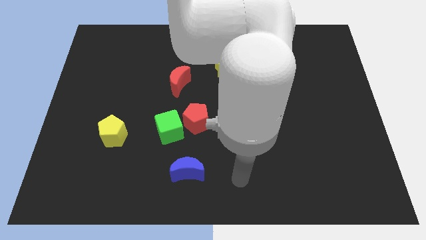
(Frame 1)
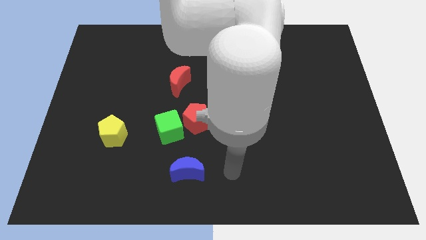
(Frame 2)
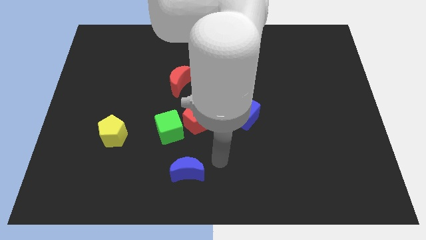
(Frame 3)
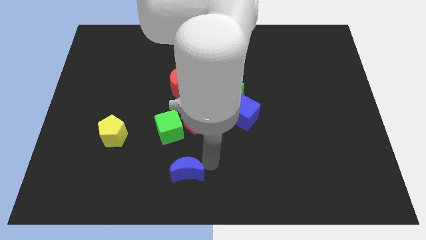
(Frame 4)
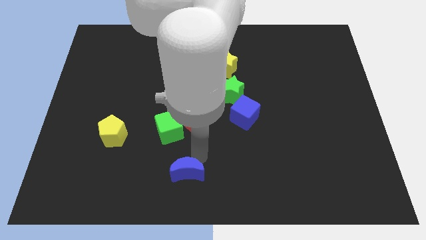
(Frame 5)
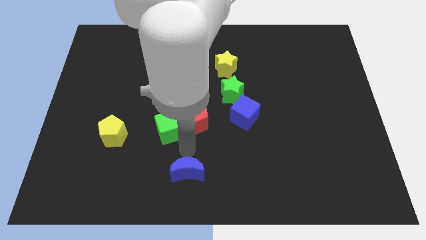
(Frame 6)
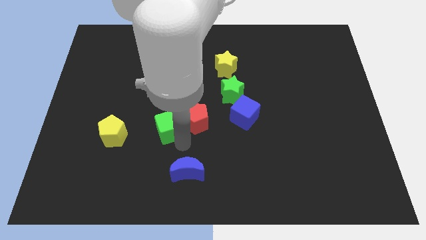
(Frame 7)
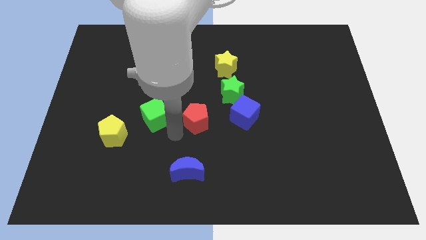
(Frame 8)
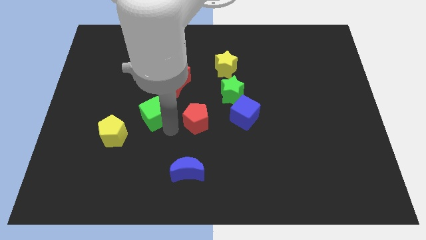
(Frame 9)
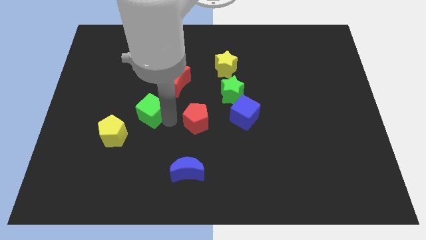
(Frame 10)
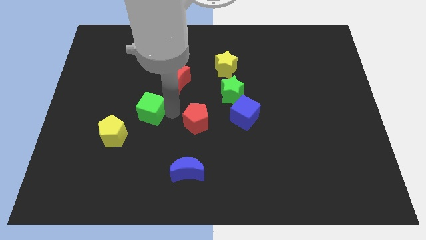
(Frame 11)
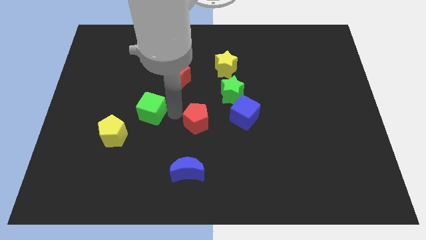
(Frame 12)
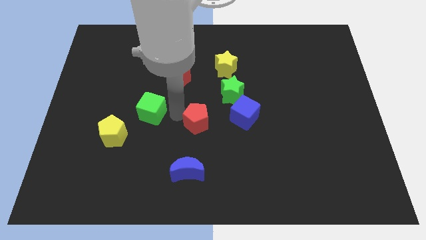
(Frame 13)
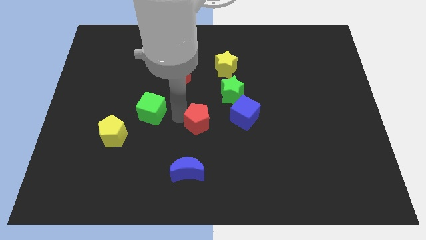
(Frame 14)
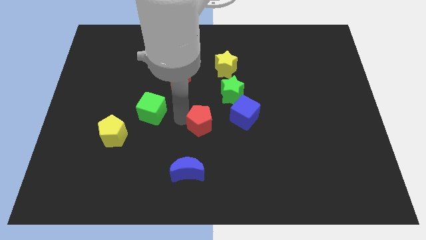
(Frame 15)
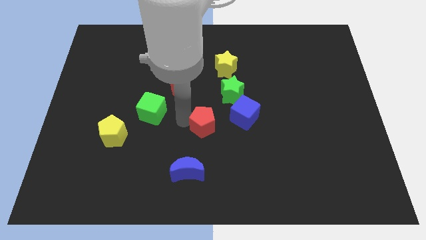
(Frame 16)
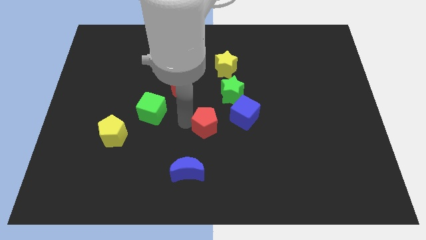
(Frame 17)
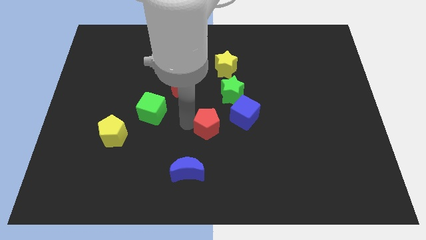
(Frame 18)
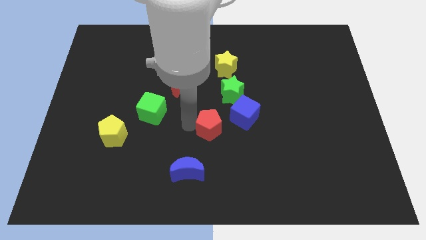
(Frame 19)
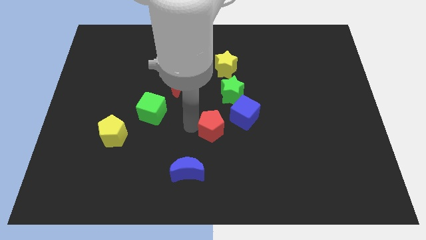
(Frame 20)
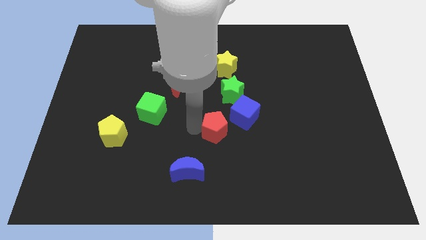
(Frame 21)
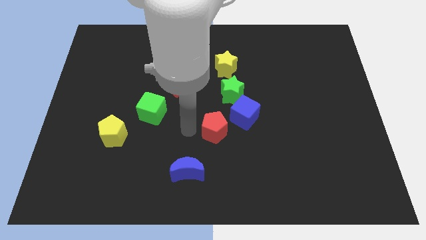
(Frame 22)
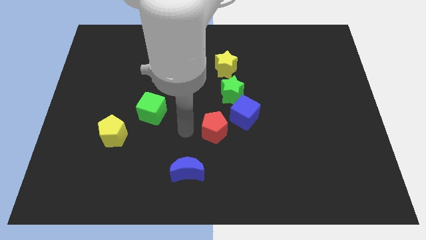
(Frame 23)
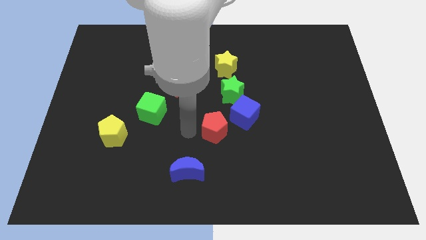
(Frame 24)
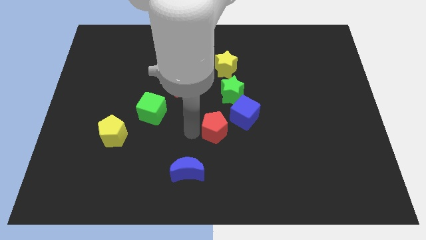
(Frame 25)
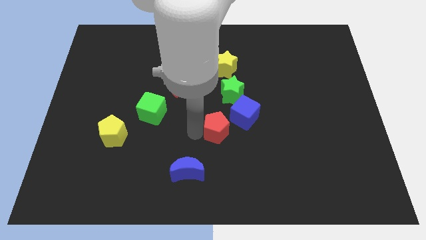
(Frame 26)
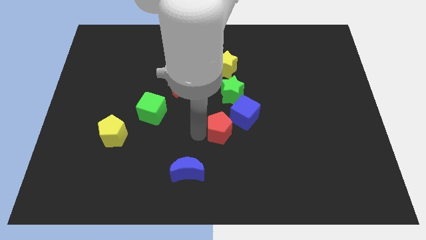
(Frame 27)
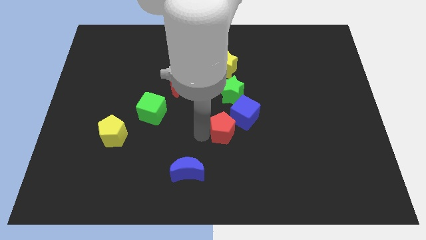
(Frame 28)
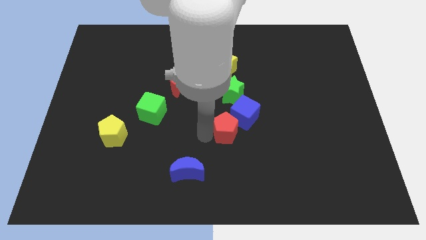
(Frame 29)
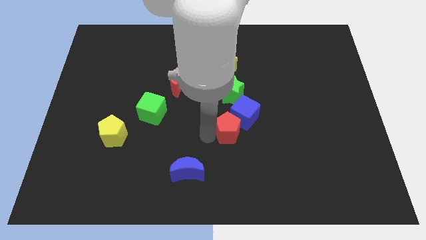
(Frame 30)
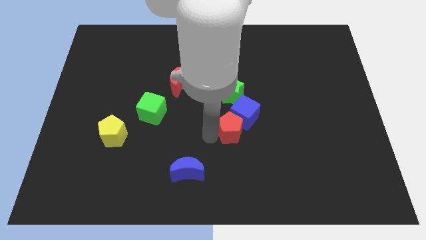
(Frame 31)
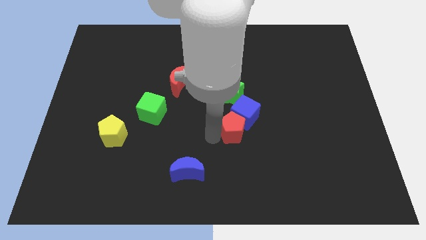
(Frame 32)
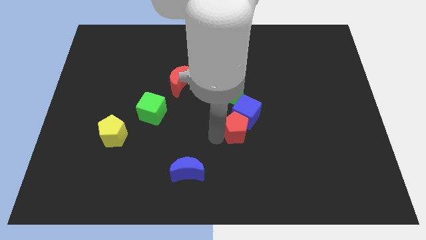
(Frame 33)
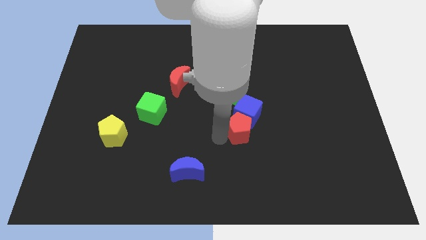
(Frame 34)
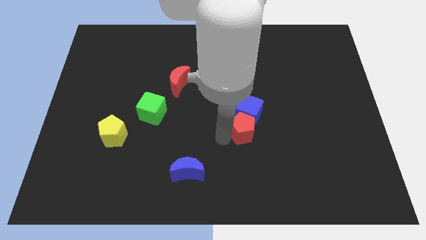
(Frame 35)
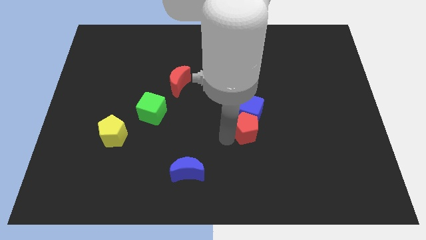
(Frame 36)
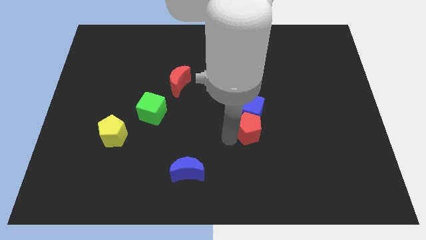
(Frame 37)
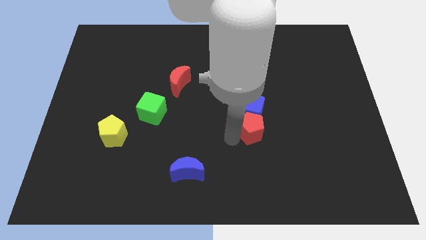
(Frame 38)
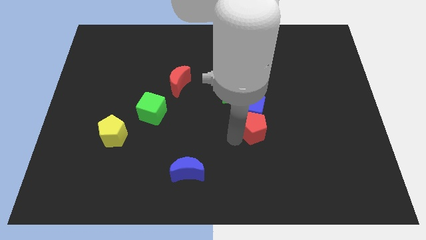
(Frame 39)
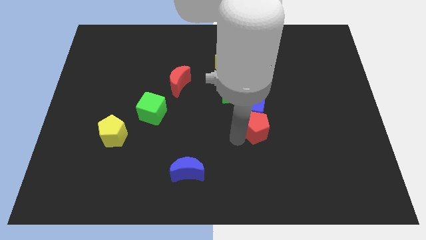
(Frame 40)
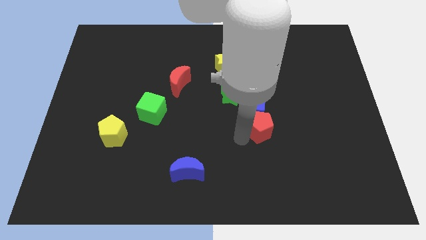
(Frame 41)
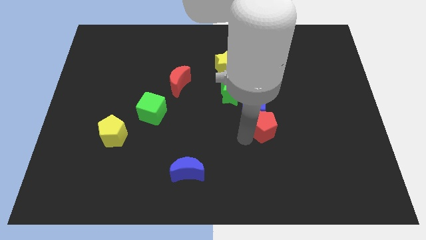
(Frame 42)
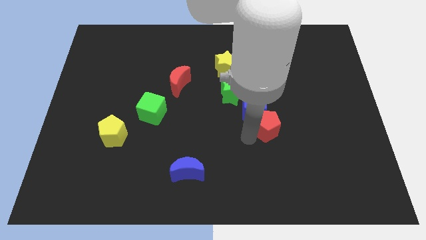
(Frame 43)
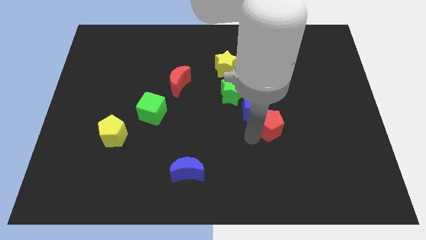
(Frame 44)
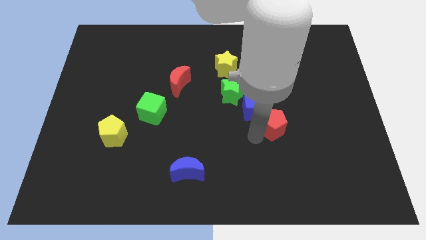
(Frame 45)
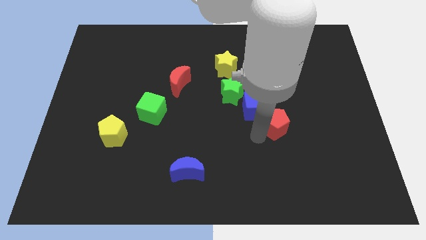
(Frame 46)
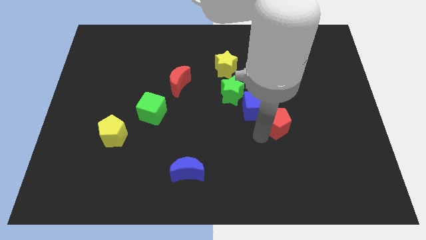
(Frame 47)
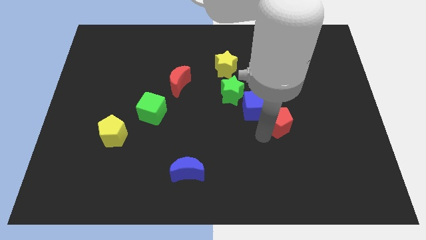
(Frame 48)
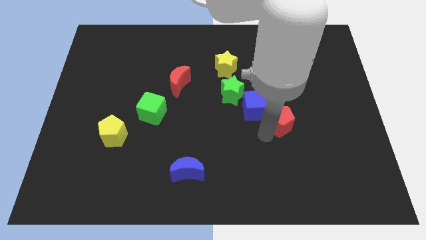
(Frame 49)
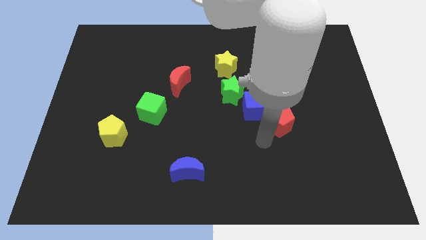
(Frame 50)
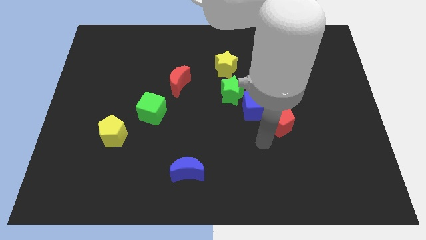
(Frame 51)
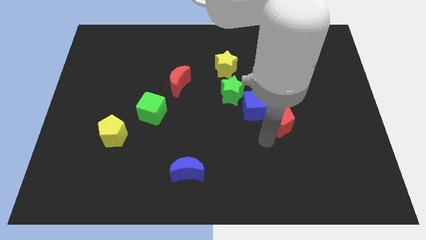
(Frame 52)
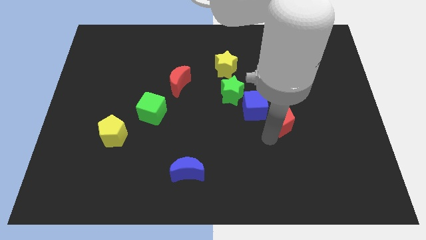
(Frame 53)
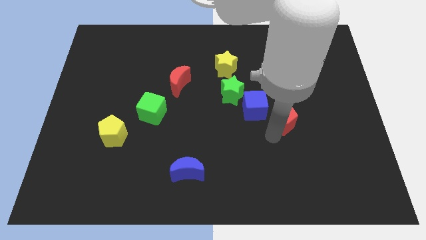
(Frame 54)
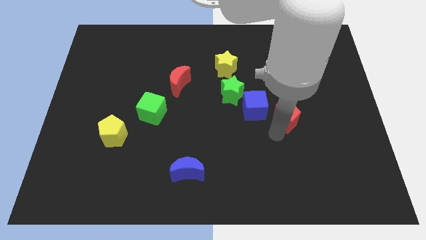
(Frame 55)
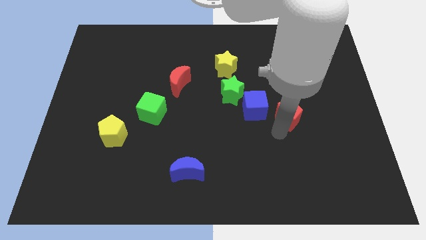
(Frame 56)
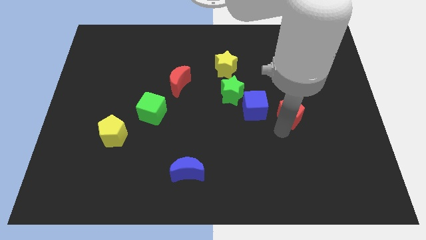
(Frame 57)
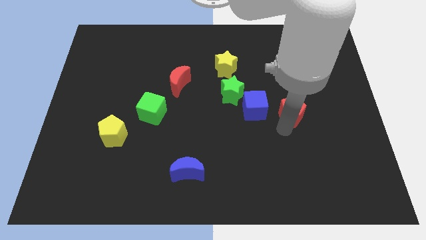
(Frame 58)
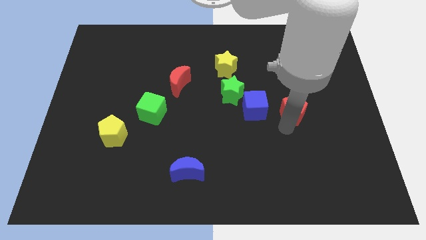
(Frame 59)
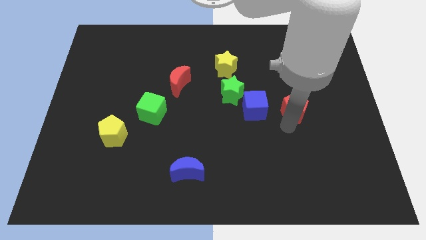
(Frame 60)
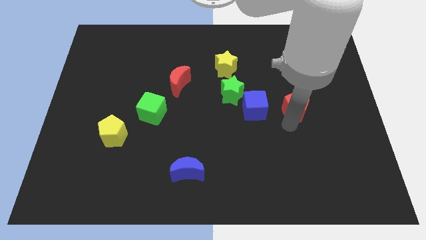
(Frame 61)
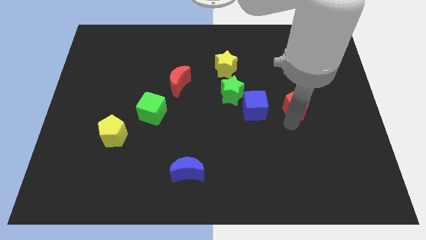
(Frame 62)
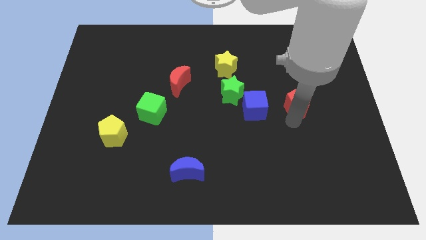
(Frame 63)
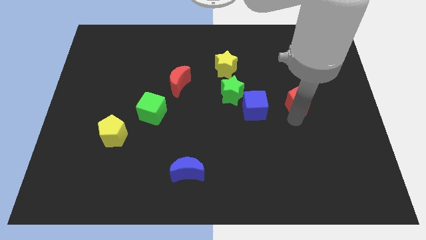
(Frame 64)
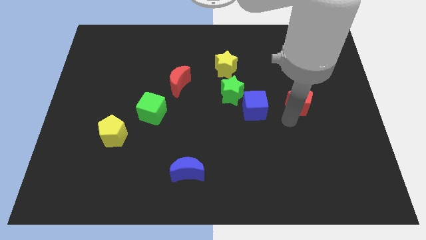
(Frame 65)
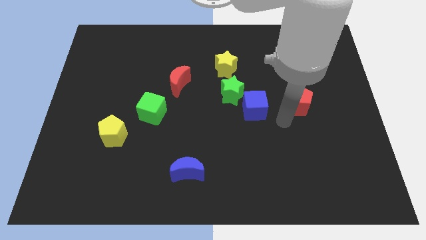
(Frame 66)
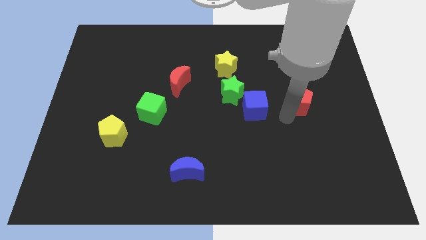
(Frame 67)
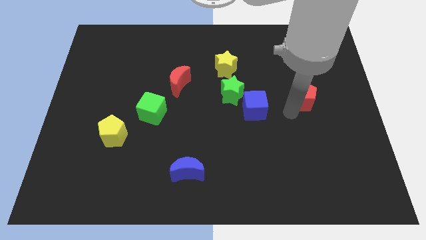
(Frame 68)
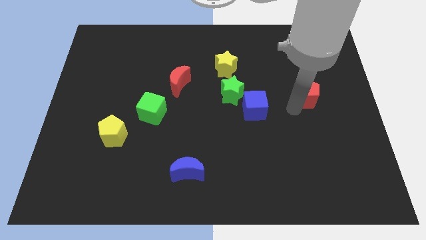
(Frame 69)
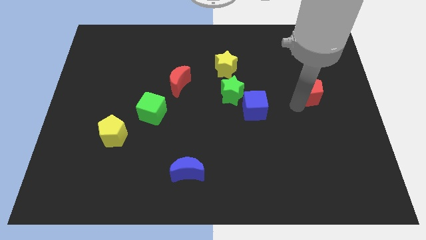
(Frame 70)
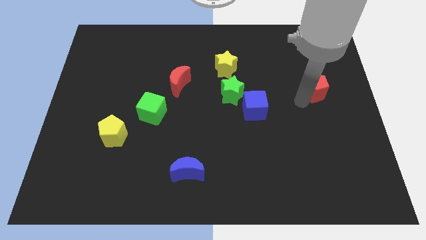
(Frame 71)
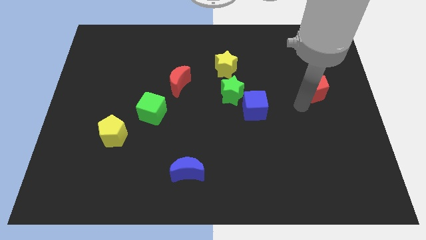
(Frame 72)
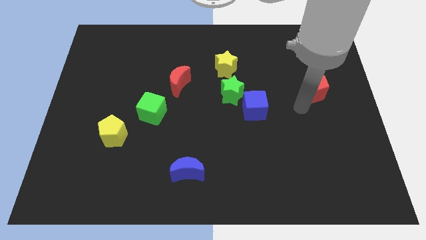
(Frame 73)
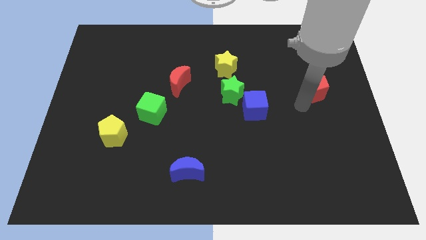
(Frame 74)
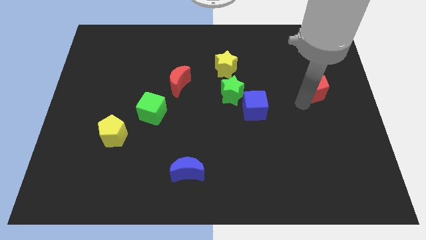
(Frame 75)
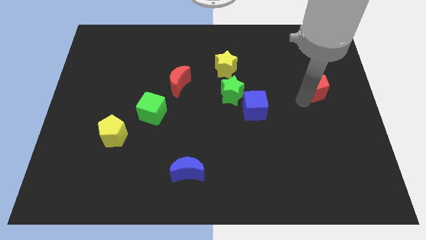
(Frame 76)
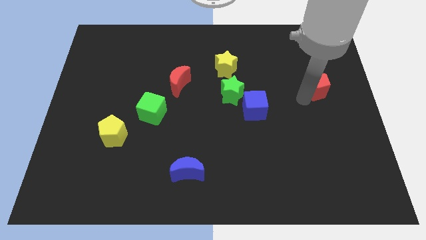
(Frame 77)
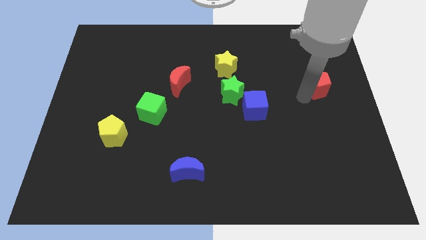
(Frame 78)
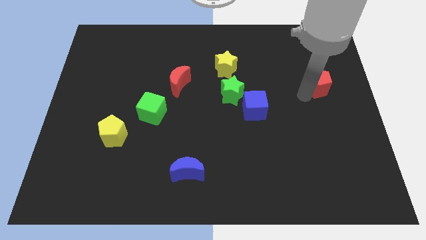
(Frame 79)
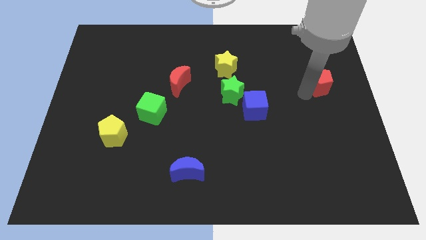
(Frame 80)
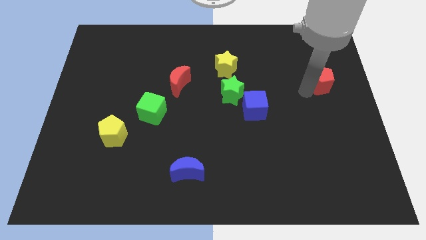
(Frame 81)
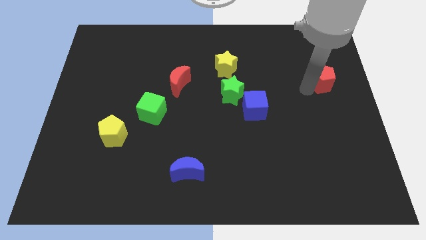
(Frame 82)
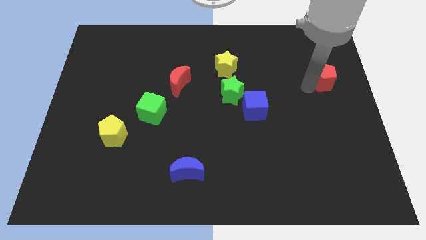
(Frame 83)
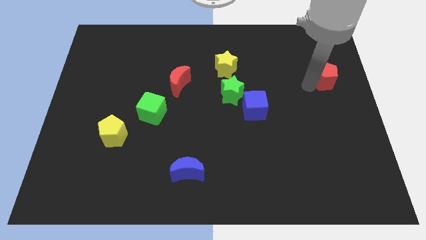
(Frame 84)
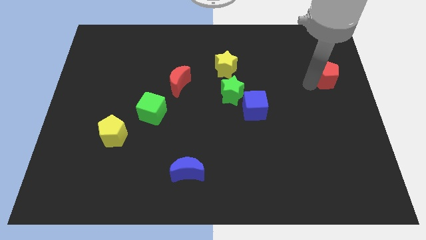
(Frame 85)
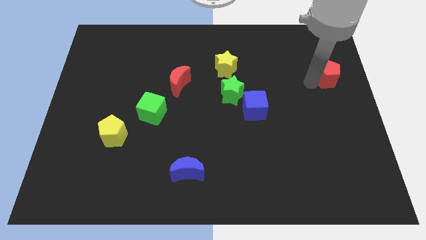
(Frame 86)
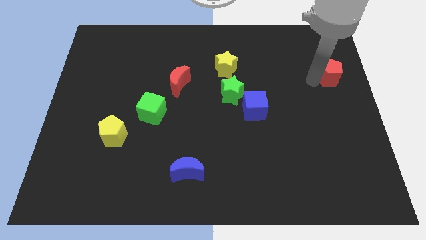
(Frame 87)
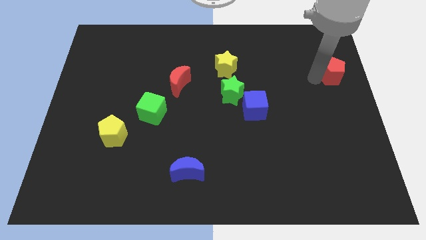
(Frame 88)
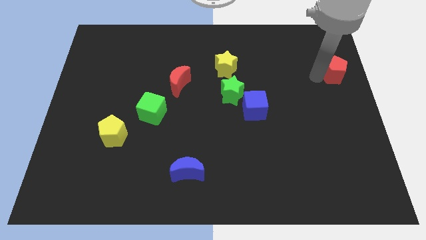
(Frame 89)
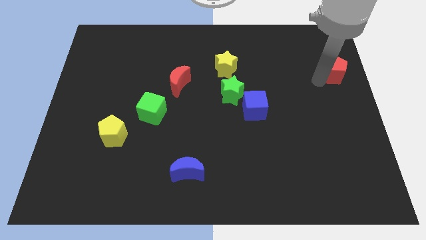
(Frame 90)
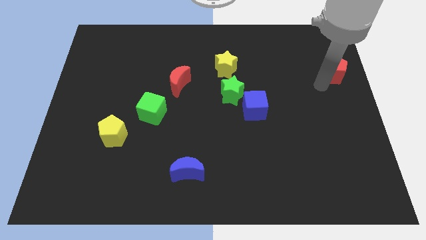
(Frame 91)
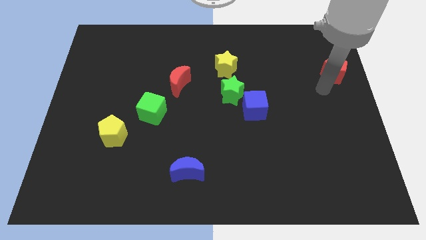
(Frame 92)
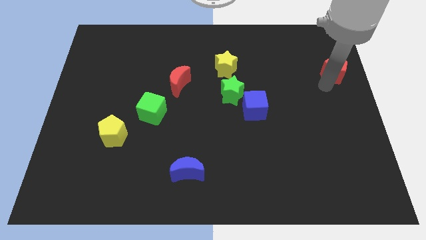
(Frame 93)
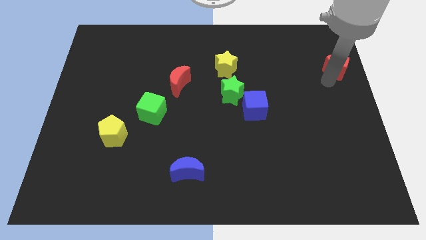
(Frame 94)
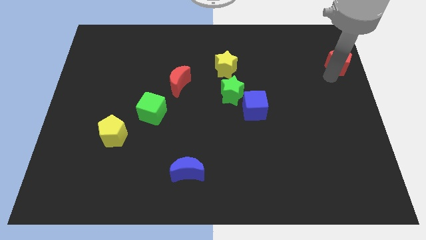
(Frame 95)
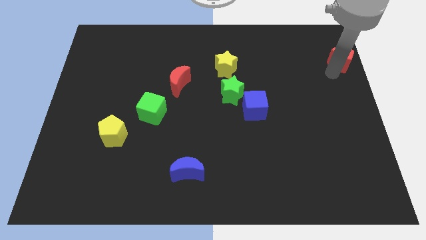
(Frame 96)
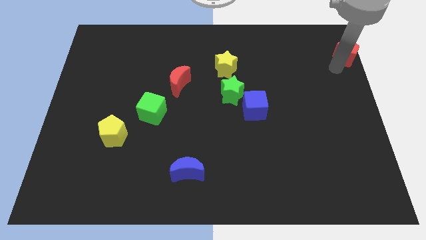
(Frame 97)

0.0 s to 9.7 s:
slide the red pentagon to the top right corner
